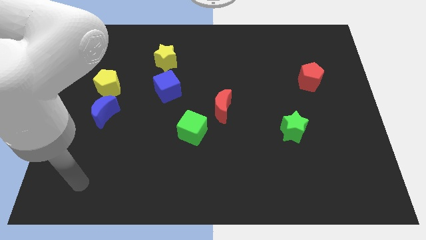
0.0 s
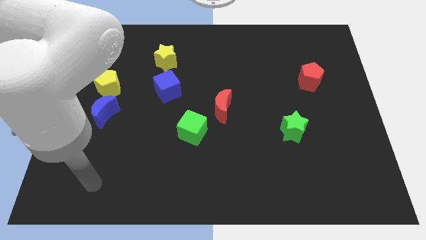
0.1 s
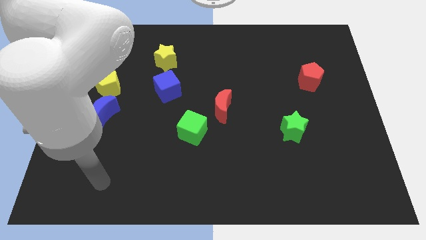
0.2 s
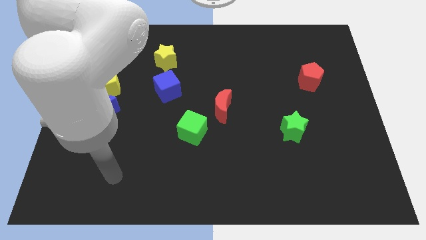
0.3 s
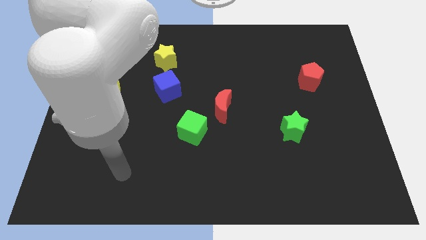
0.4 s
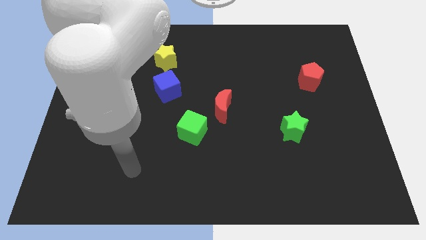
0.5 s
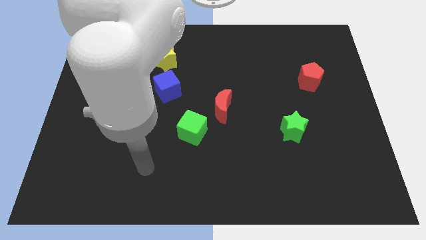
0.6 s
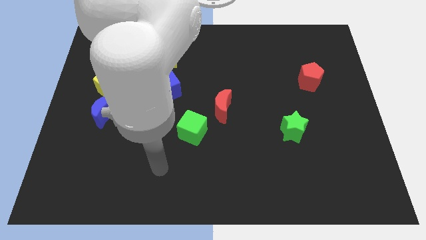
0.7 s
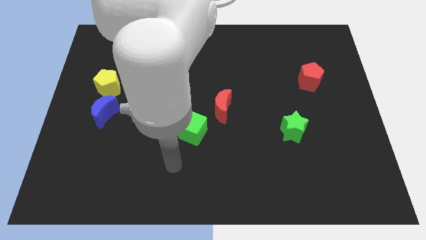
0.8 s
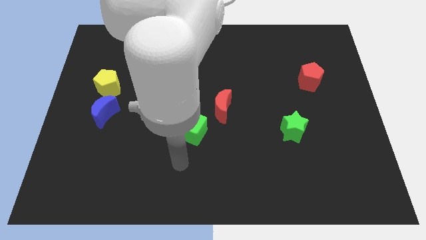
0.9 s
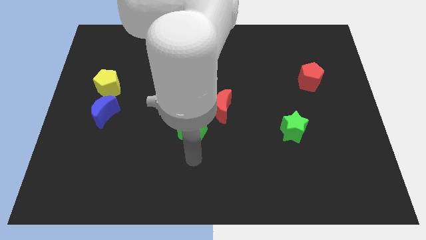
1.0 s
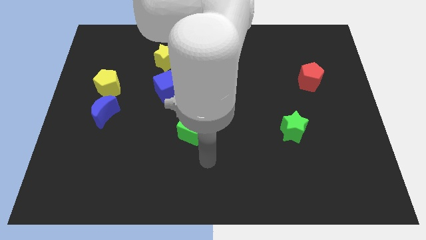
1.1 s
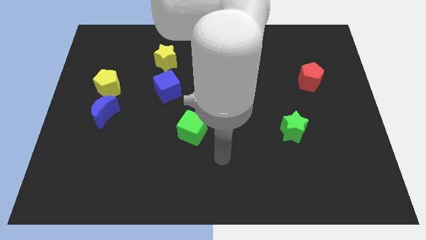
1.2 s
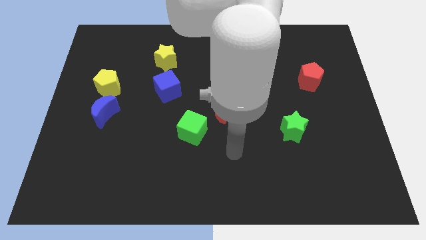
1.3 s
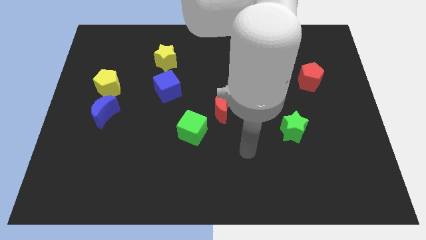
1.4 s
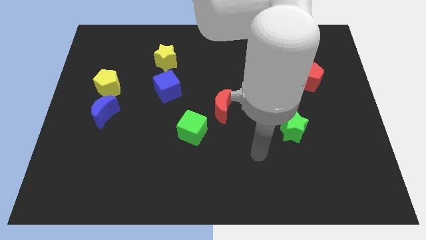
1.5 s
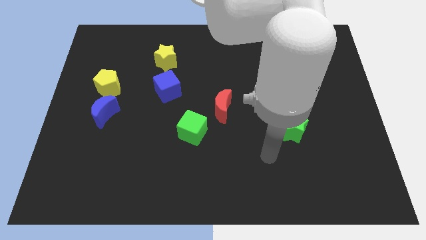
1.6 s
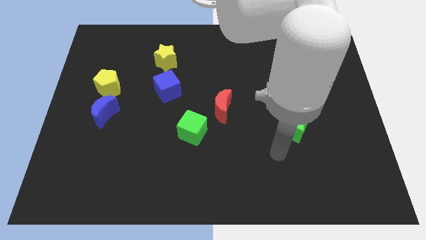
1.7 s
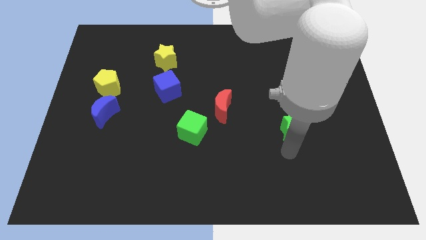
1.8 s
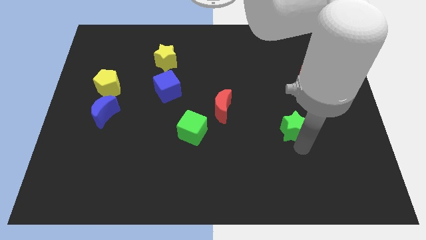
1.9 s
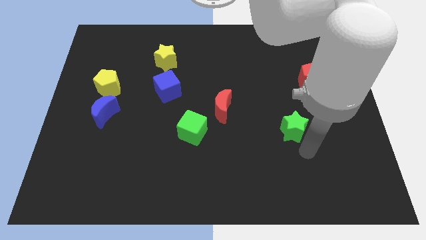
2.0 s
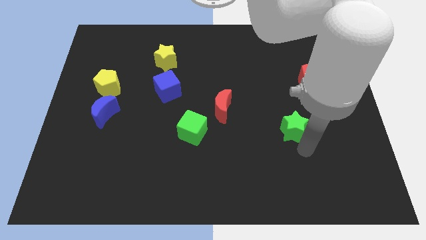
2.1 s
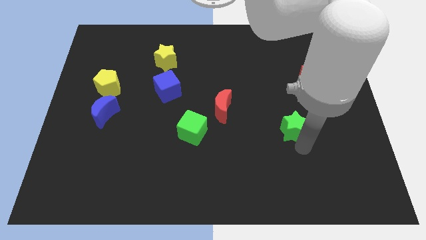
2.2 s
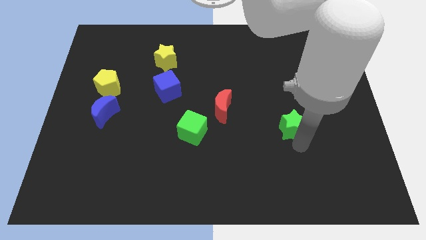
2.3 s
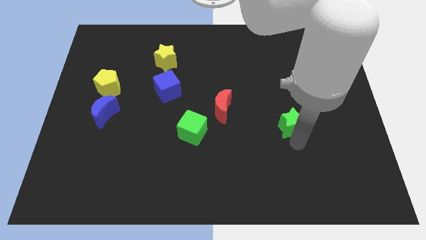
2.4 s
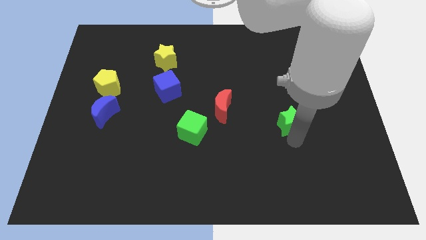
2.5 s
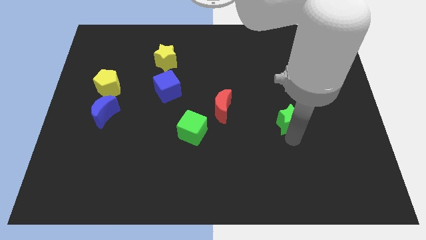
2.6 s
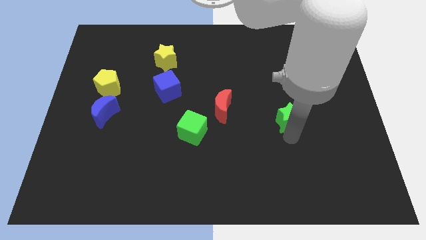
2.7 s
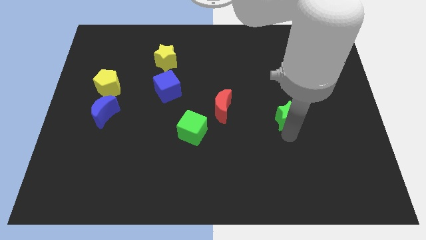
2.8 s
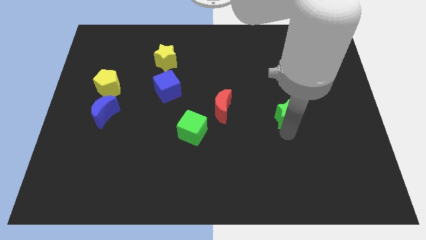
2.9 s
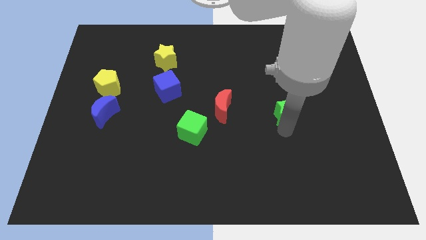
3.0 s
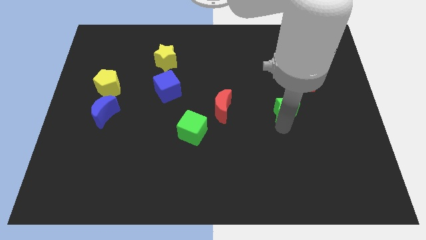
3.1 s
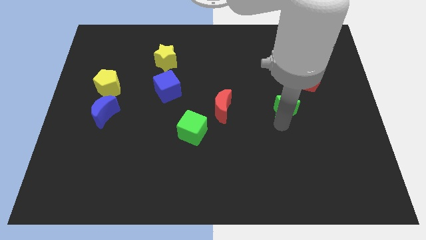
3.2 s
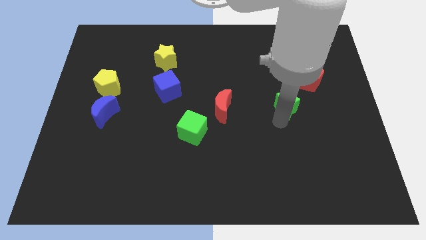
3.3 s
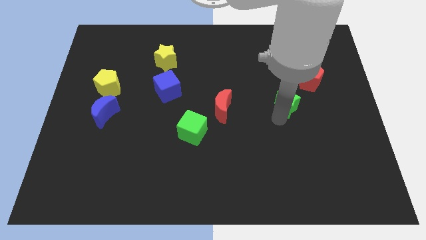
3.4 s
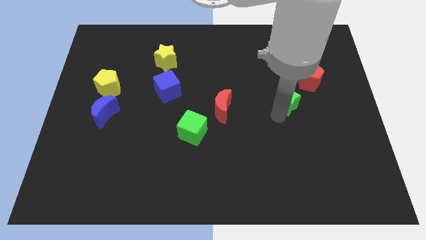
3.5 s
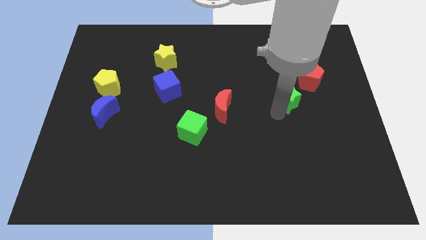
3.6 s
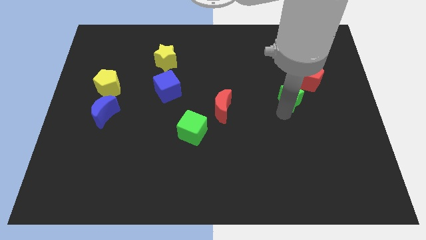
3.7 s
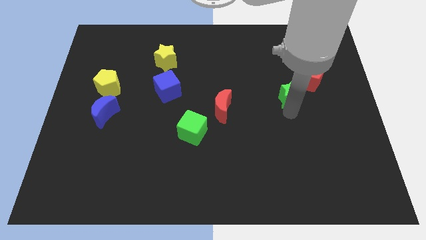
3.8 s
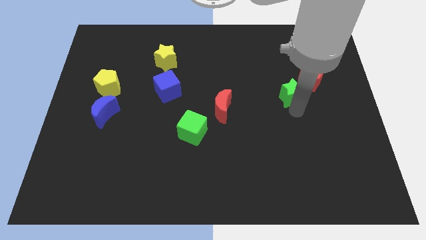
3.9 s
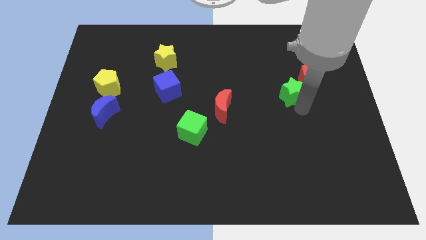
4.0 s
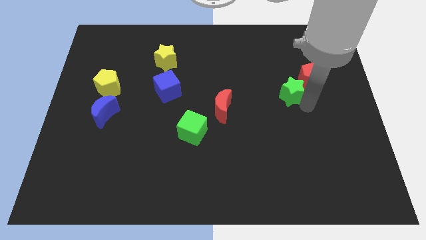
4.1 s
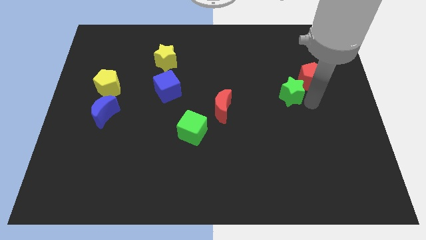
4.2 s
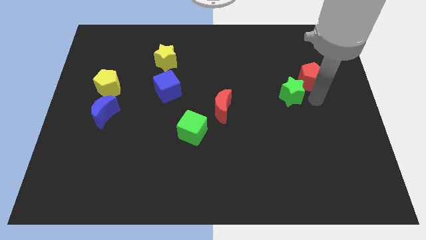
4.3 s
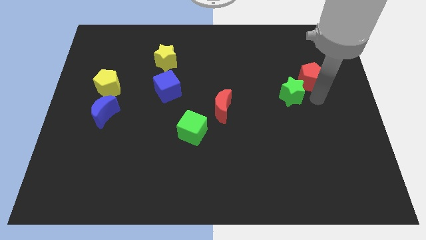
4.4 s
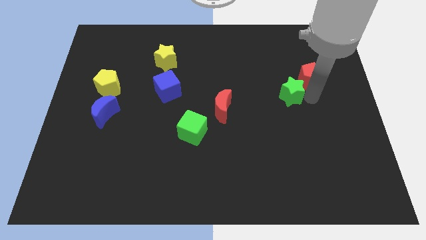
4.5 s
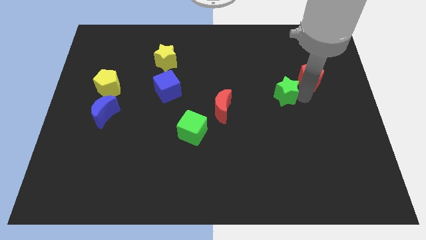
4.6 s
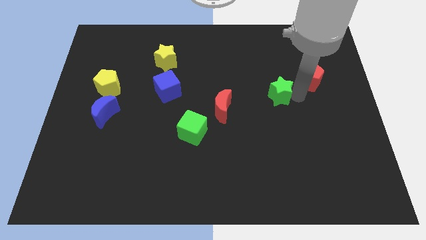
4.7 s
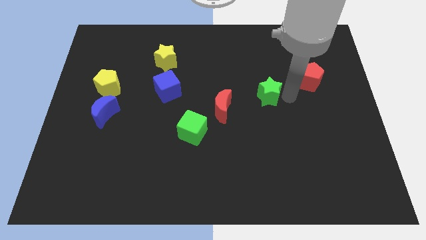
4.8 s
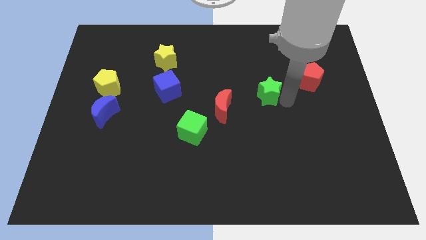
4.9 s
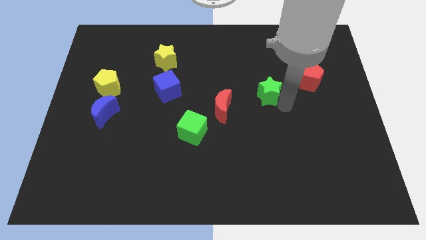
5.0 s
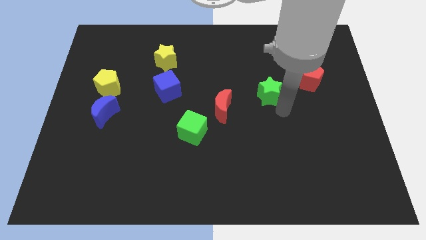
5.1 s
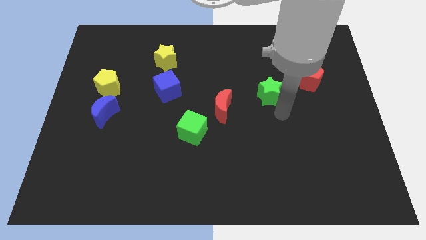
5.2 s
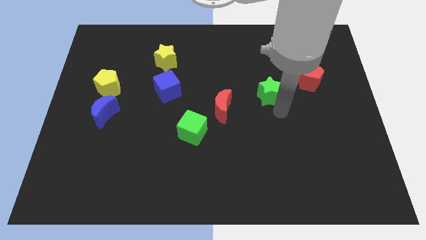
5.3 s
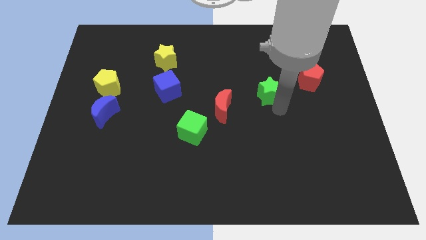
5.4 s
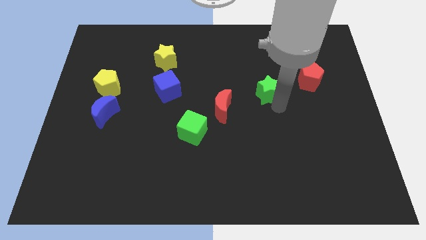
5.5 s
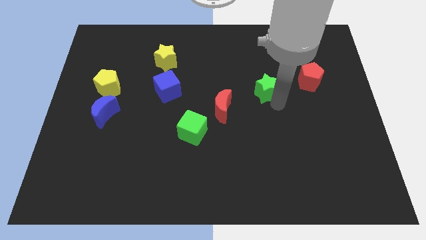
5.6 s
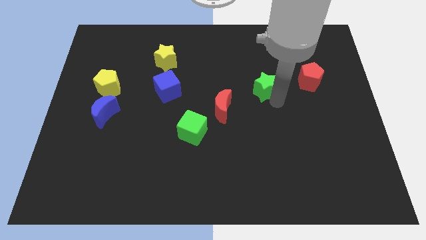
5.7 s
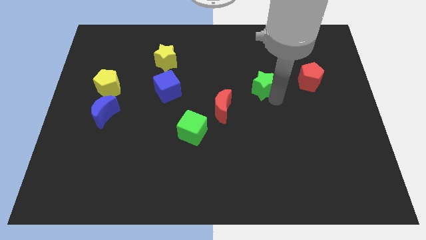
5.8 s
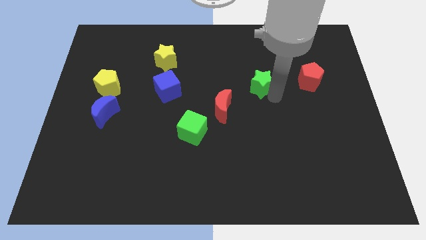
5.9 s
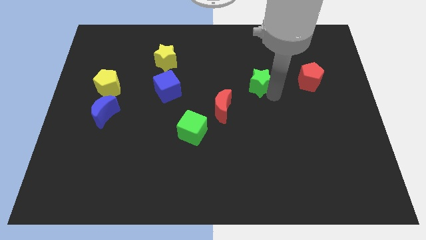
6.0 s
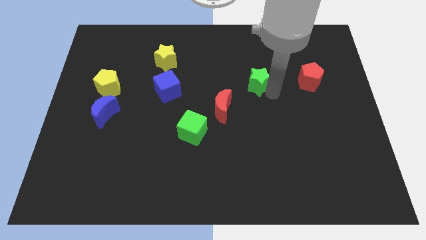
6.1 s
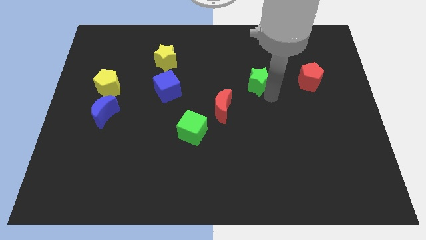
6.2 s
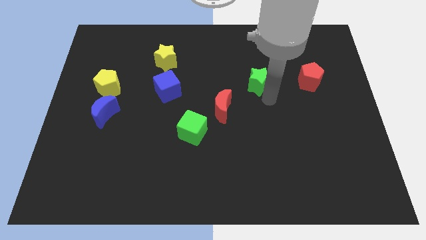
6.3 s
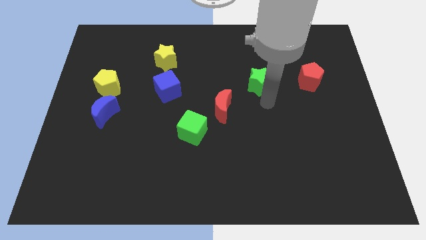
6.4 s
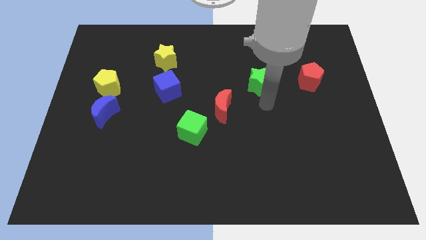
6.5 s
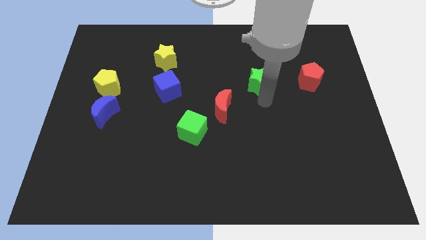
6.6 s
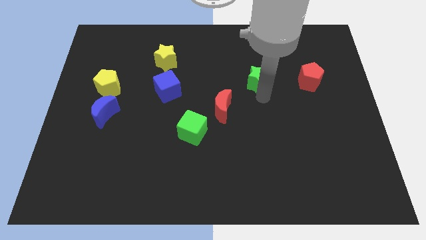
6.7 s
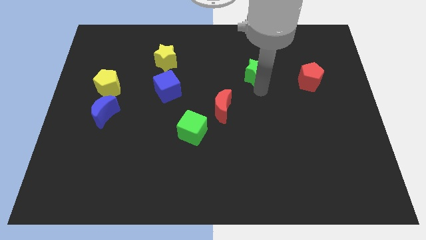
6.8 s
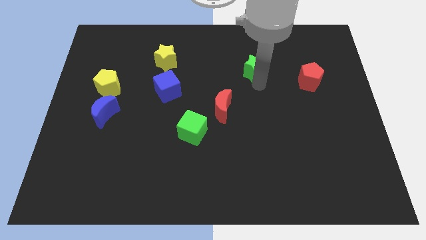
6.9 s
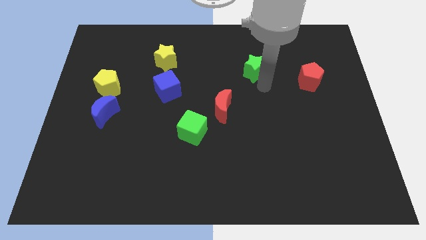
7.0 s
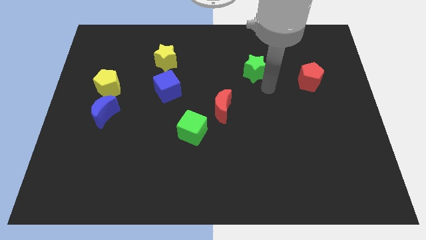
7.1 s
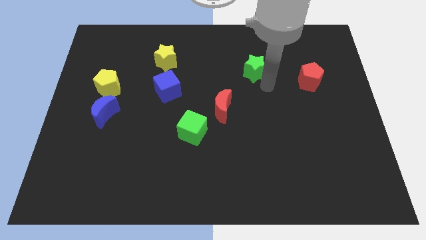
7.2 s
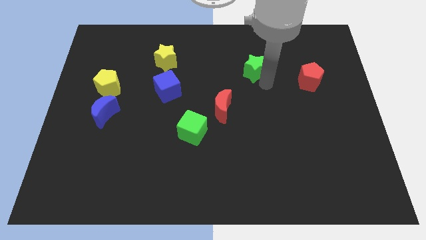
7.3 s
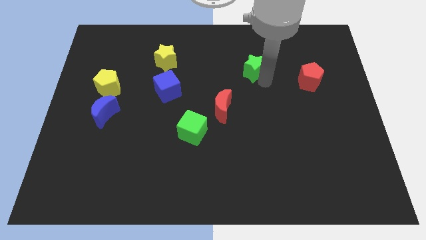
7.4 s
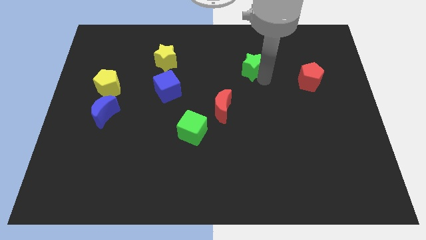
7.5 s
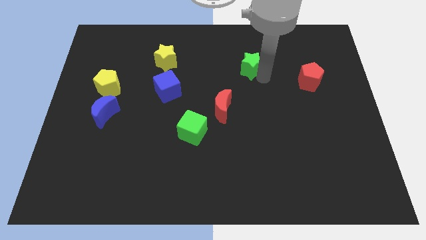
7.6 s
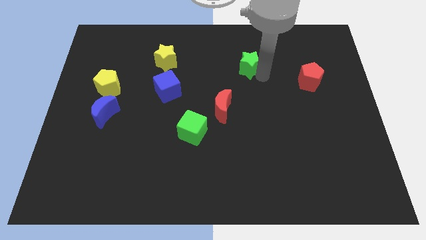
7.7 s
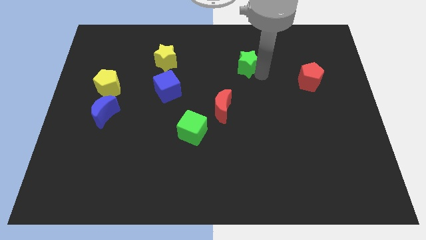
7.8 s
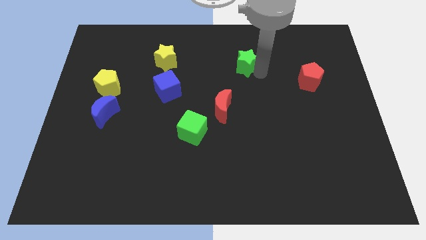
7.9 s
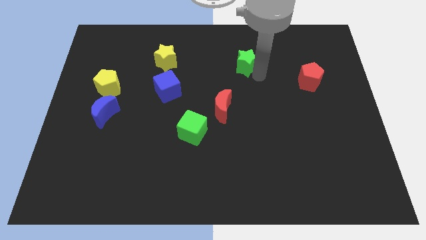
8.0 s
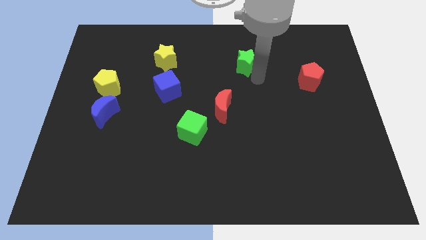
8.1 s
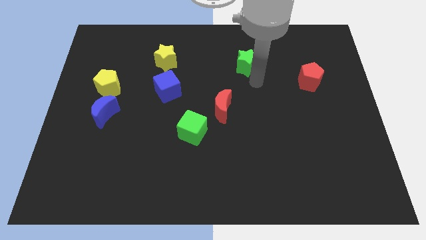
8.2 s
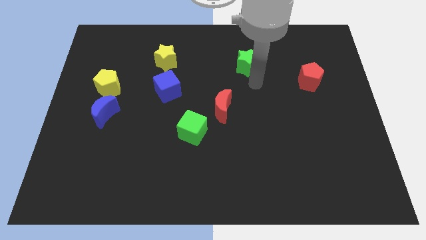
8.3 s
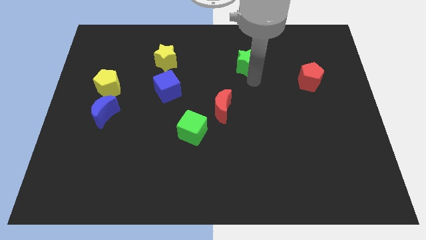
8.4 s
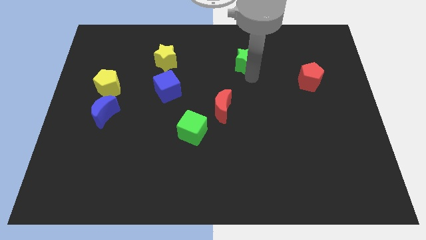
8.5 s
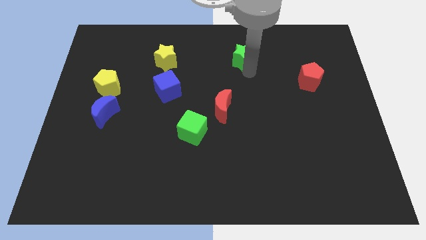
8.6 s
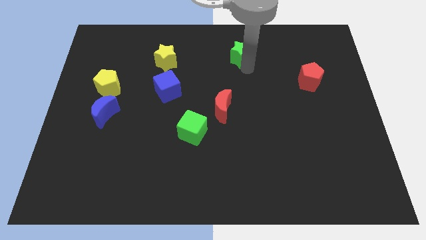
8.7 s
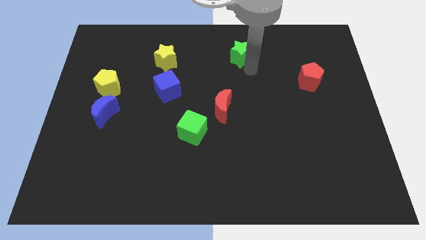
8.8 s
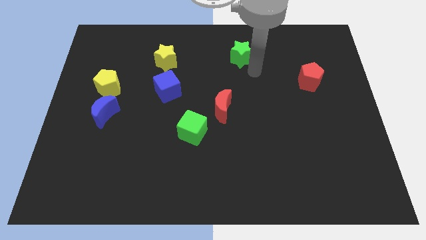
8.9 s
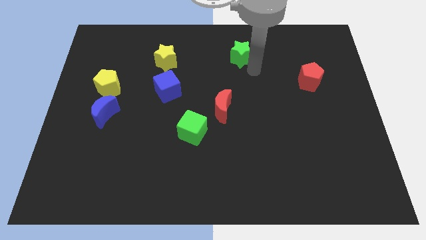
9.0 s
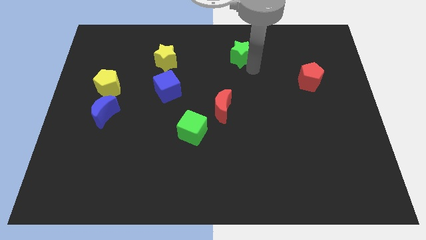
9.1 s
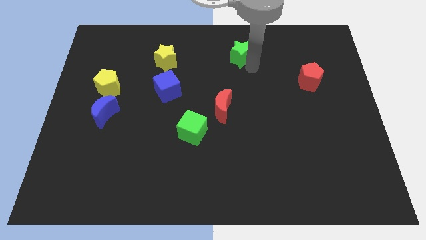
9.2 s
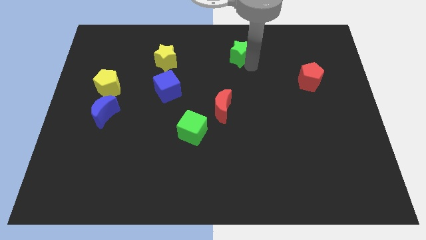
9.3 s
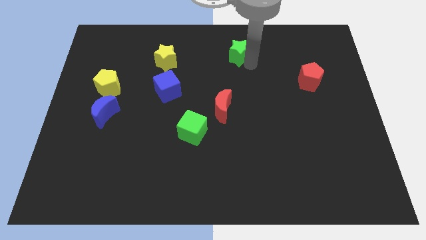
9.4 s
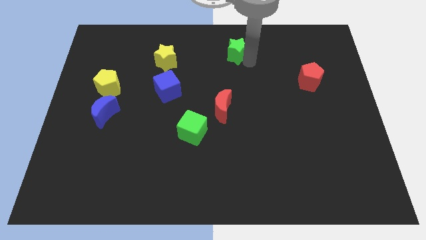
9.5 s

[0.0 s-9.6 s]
put the green star to the towards your base
